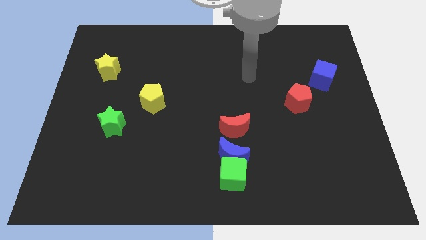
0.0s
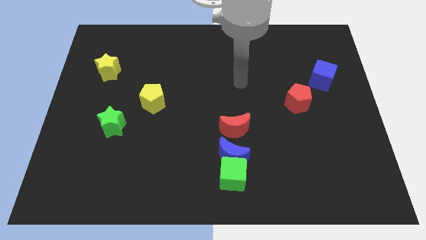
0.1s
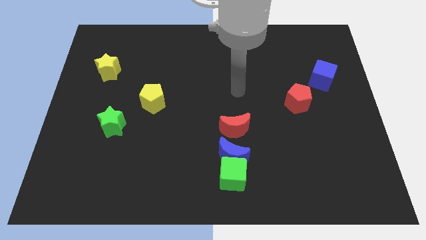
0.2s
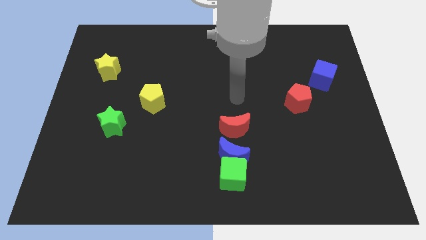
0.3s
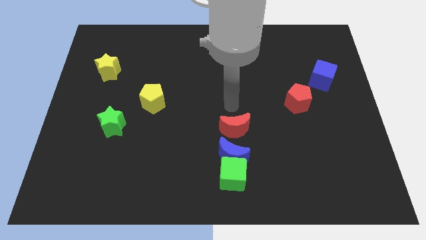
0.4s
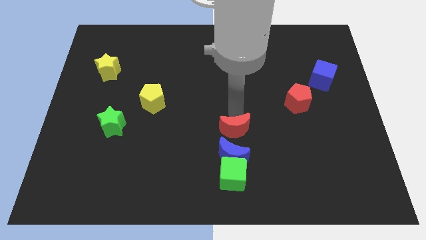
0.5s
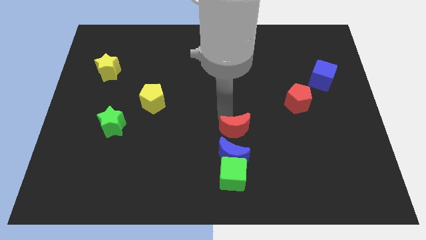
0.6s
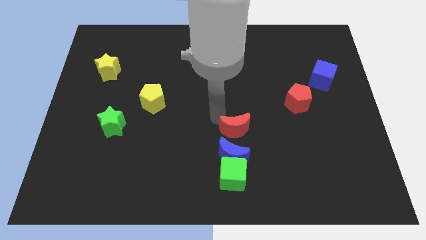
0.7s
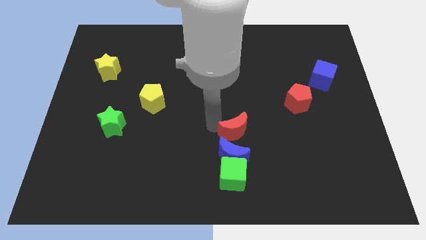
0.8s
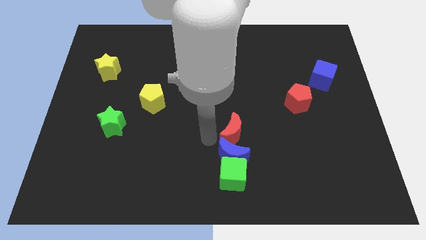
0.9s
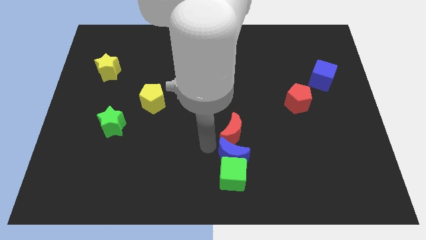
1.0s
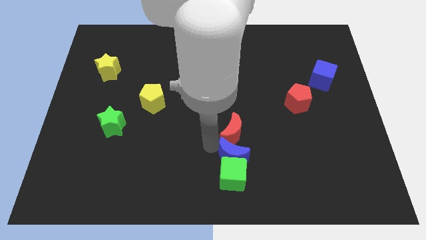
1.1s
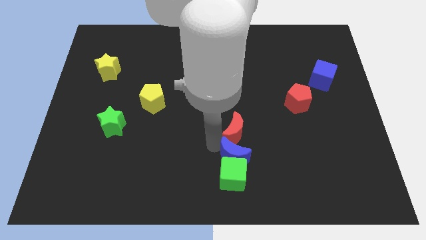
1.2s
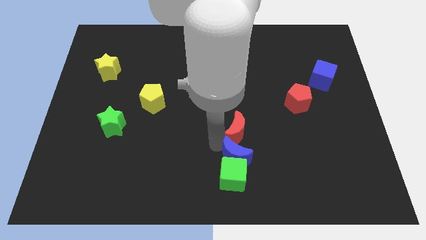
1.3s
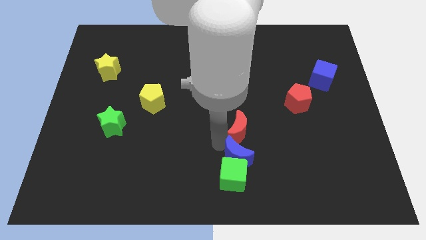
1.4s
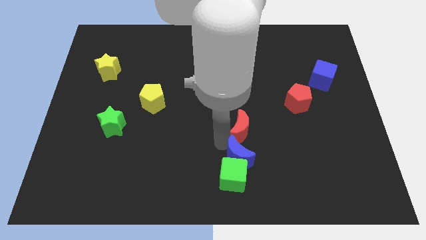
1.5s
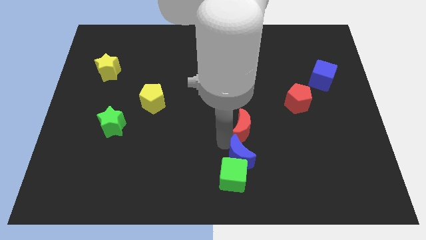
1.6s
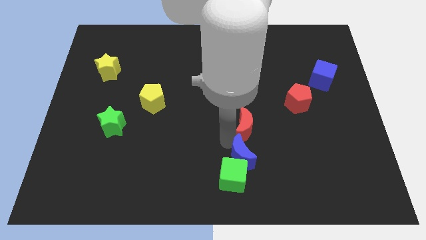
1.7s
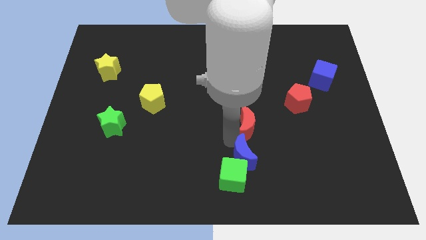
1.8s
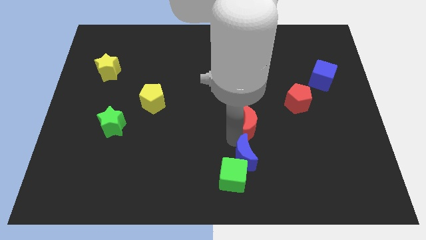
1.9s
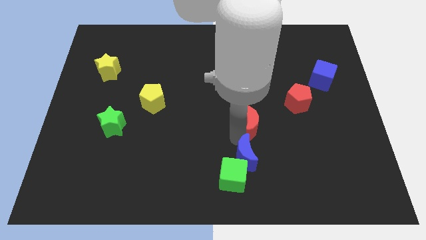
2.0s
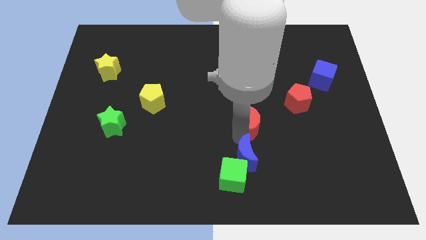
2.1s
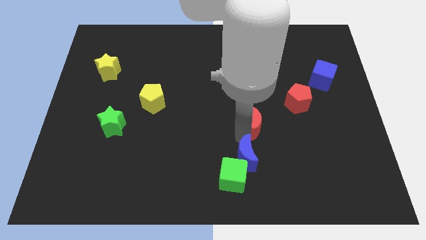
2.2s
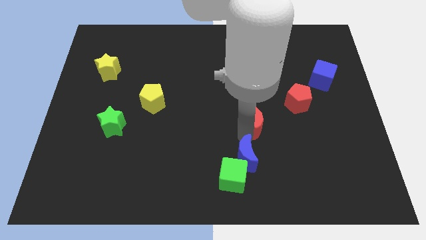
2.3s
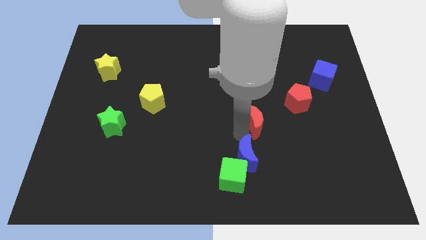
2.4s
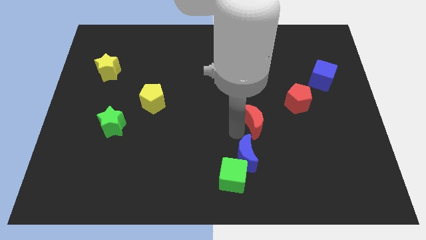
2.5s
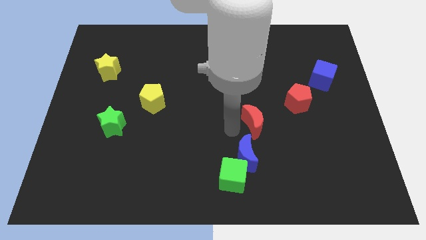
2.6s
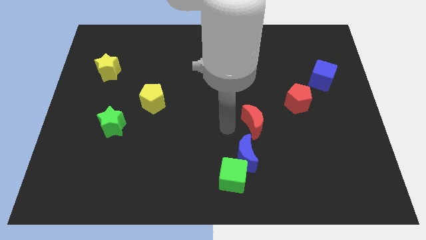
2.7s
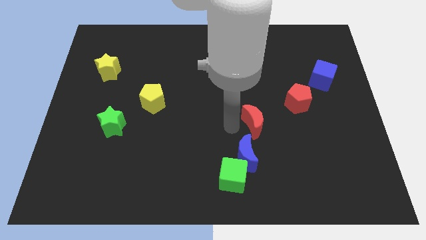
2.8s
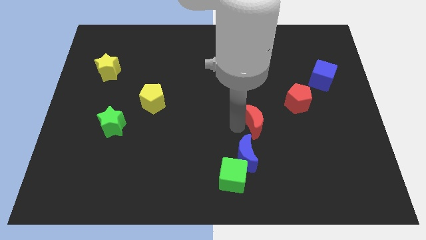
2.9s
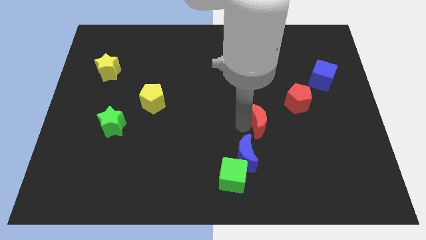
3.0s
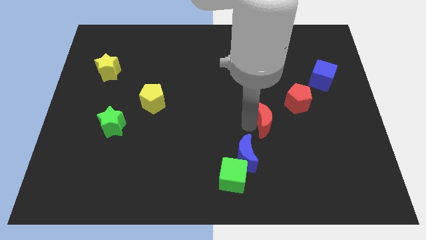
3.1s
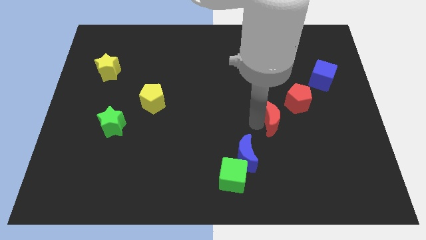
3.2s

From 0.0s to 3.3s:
move the red moon slightly right

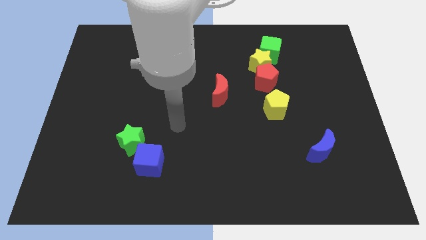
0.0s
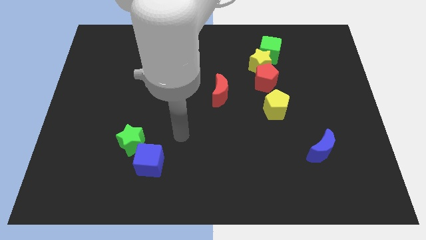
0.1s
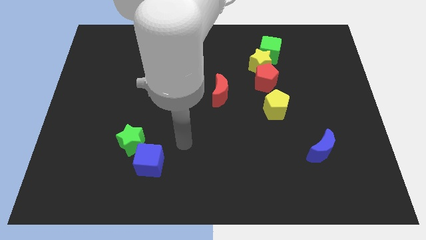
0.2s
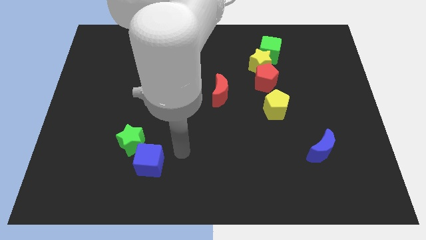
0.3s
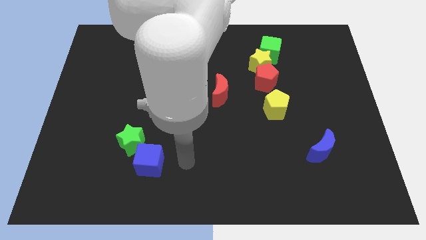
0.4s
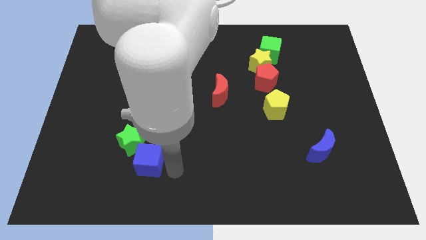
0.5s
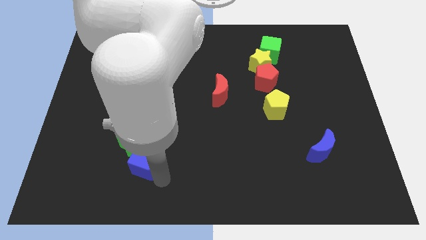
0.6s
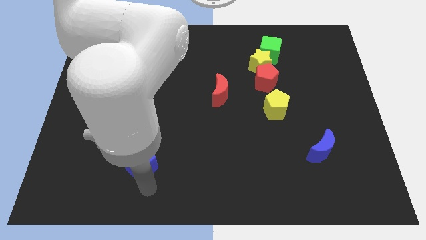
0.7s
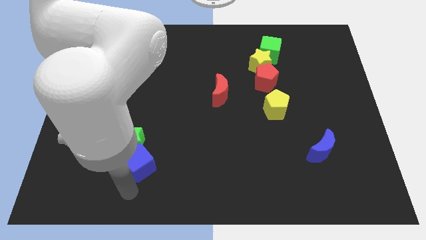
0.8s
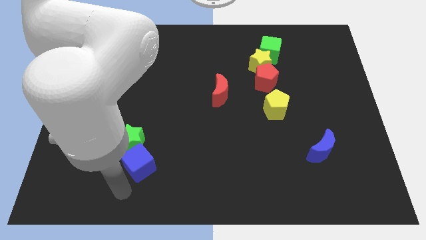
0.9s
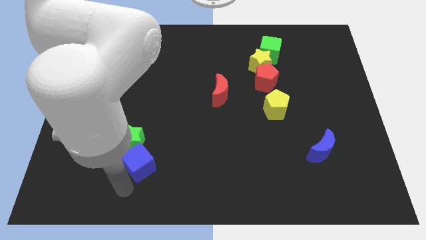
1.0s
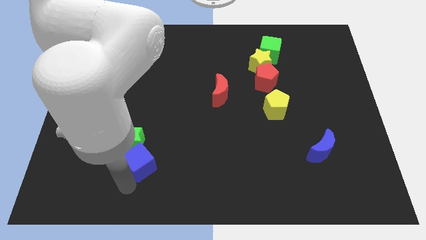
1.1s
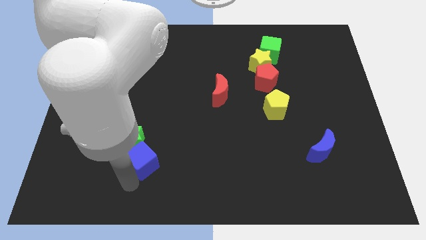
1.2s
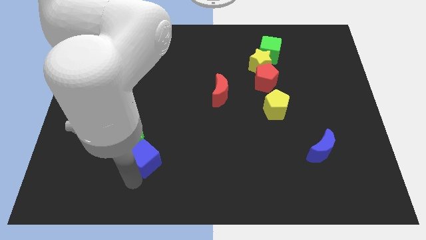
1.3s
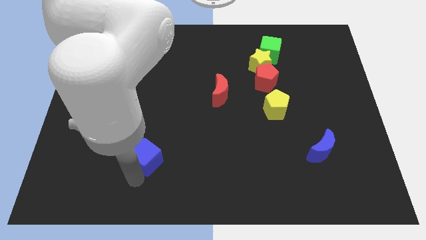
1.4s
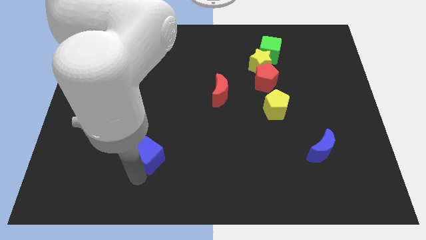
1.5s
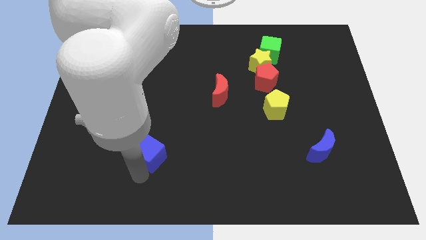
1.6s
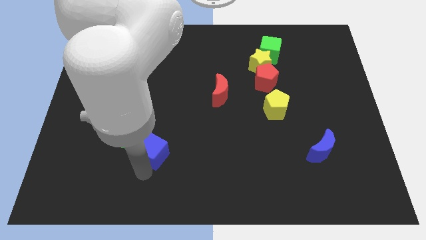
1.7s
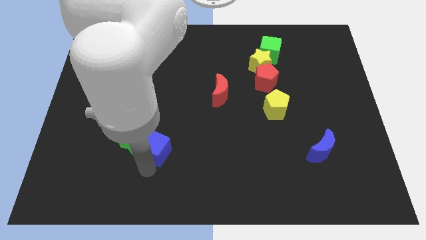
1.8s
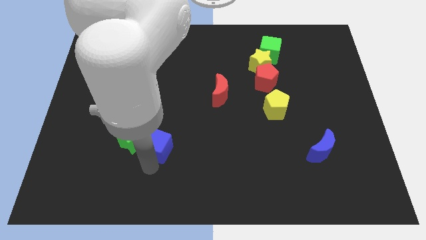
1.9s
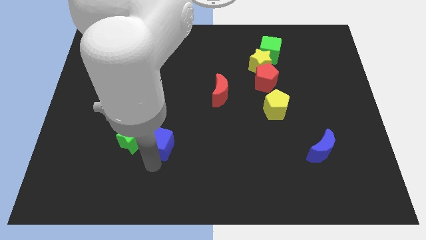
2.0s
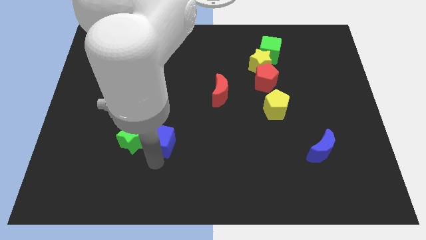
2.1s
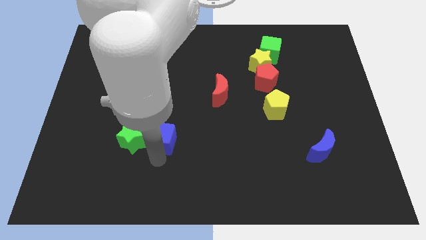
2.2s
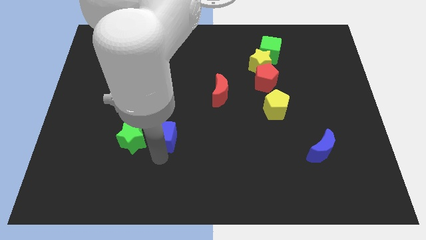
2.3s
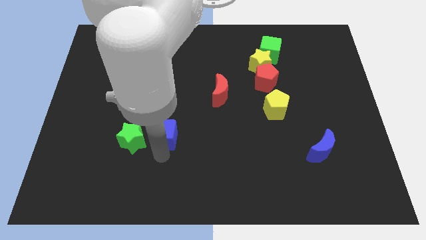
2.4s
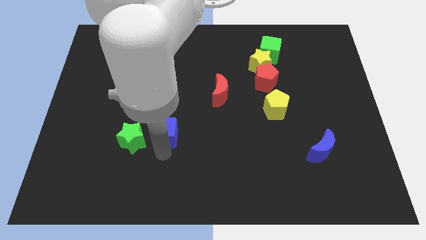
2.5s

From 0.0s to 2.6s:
slightly move the blue cube up

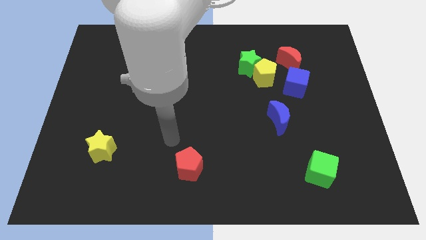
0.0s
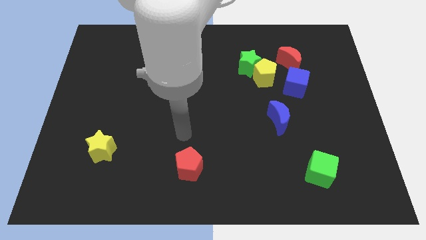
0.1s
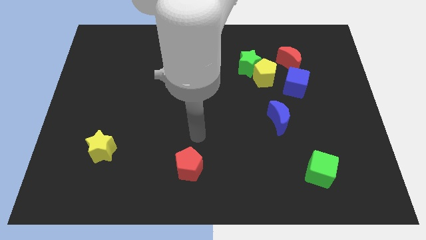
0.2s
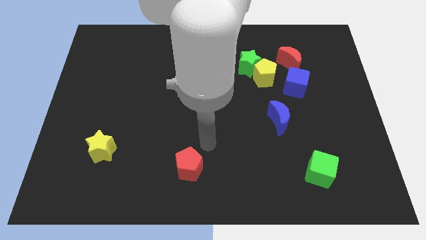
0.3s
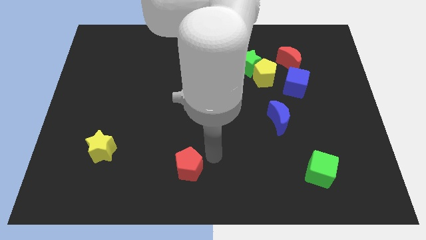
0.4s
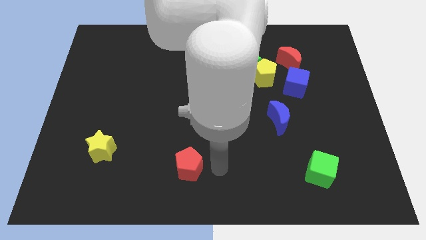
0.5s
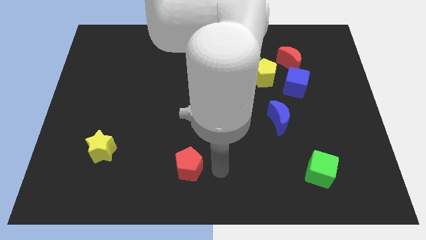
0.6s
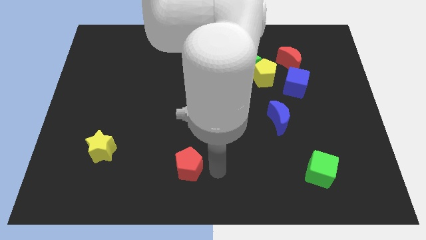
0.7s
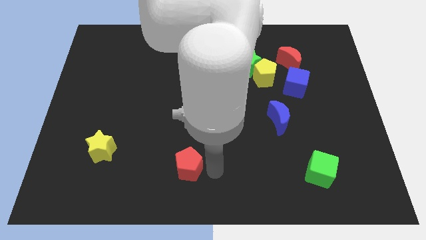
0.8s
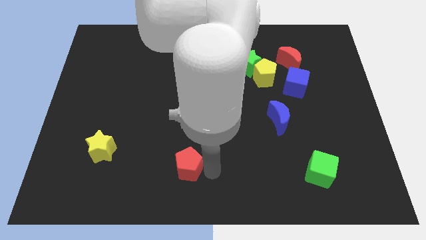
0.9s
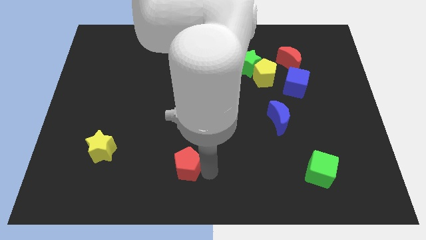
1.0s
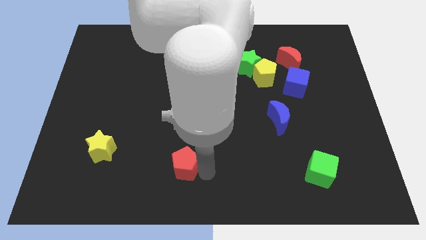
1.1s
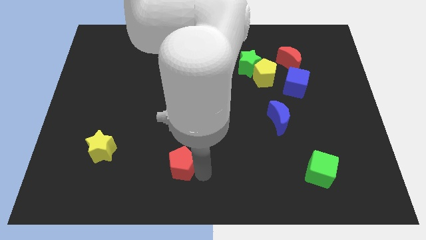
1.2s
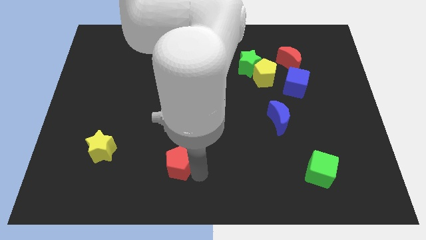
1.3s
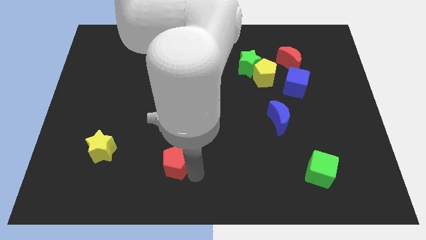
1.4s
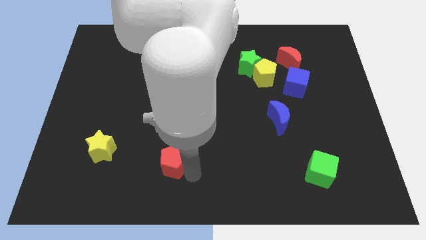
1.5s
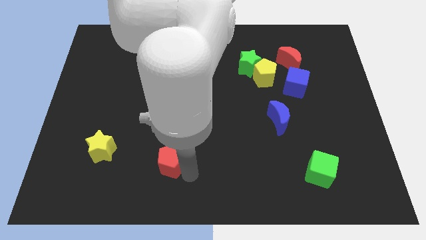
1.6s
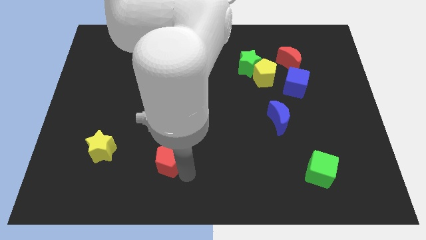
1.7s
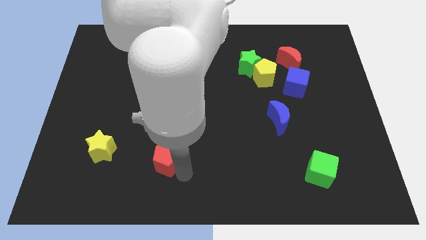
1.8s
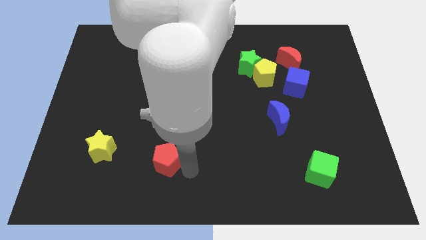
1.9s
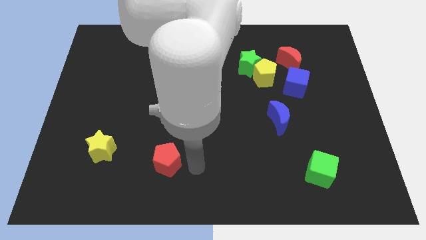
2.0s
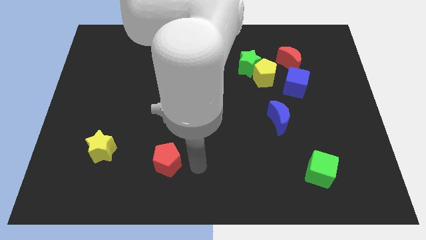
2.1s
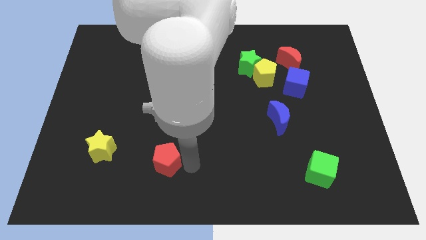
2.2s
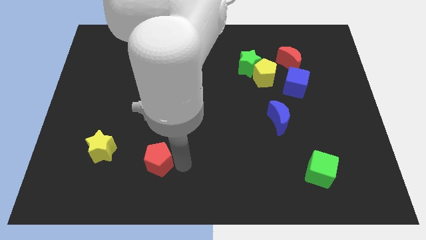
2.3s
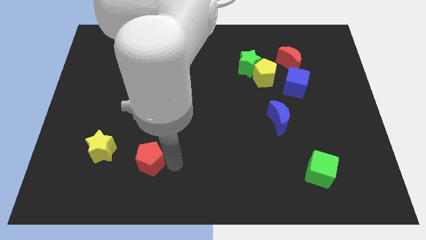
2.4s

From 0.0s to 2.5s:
slide the red pentagon somewhat to the left
